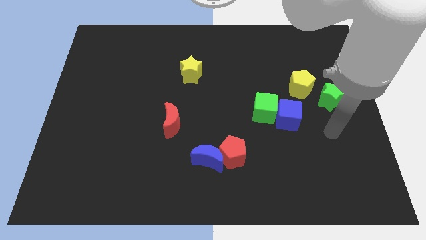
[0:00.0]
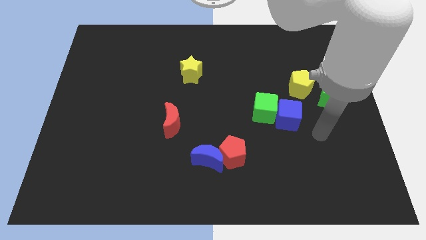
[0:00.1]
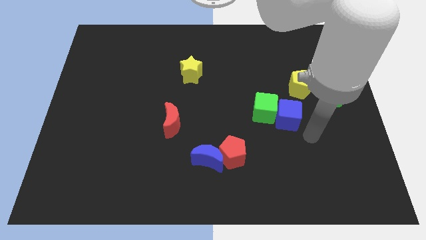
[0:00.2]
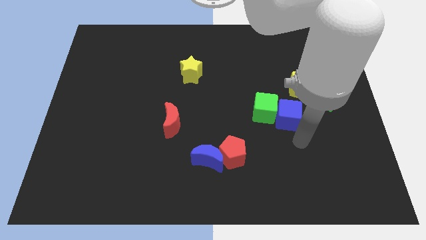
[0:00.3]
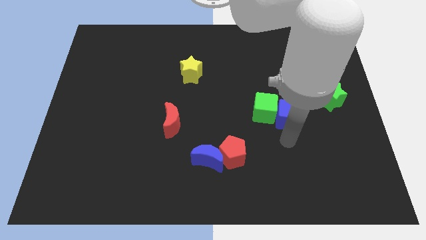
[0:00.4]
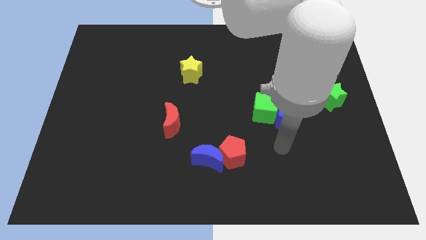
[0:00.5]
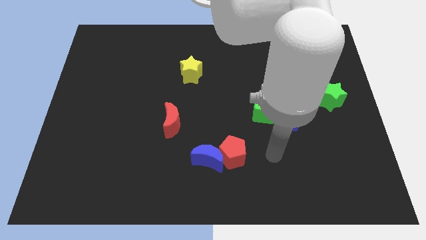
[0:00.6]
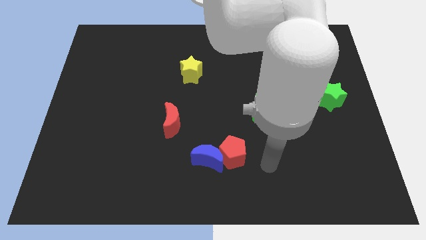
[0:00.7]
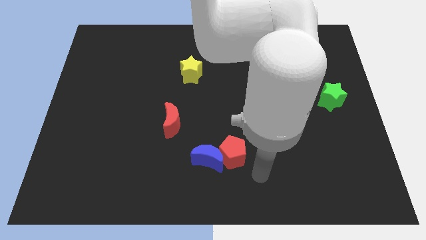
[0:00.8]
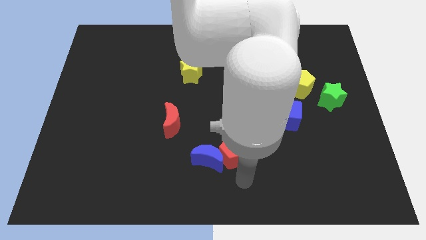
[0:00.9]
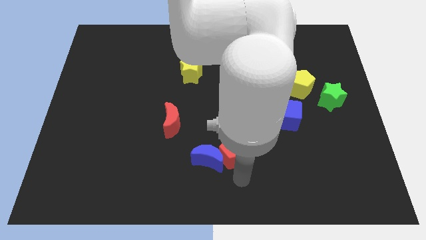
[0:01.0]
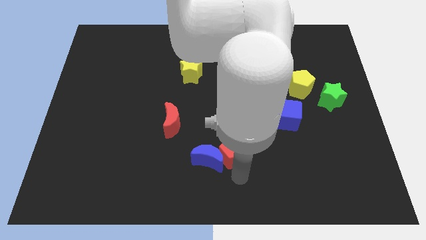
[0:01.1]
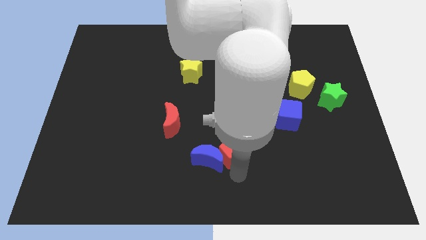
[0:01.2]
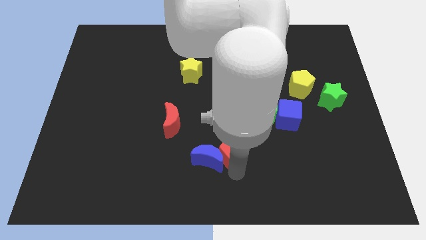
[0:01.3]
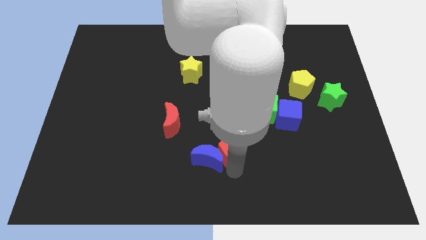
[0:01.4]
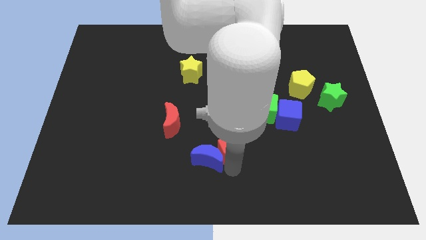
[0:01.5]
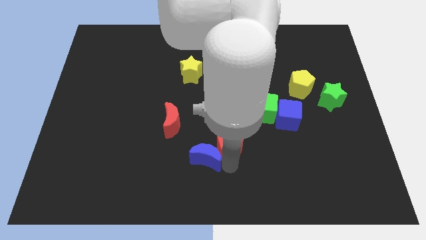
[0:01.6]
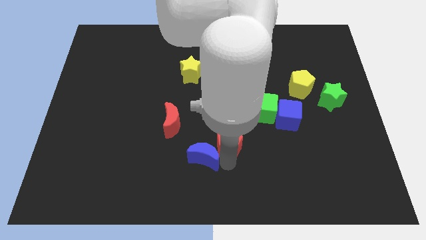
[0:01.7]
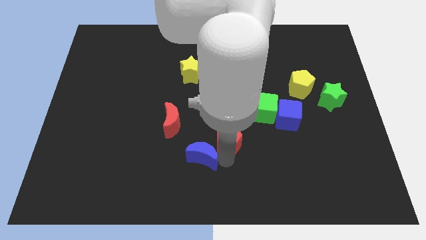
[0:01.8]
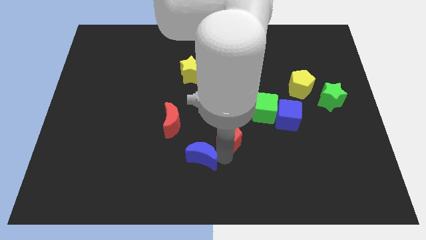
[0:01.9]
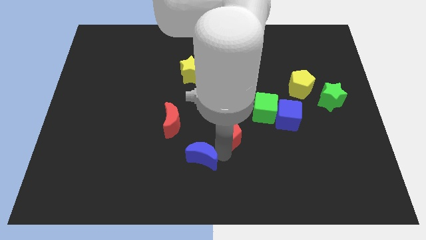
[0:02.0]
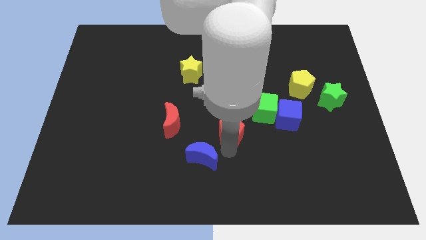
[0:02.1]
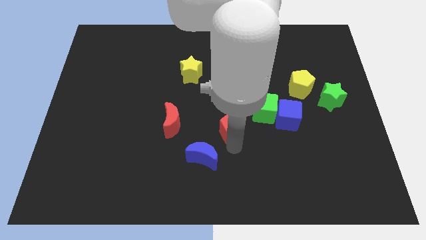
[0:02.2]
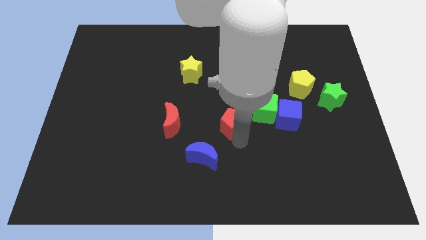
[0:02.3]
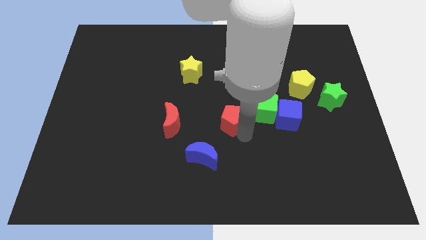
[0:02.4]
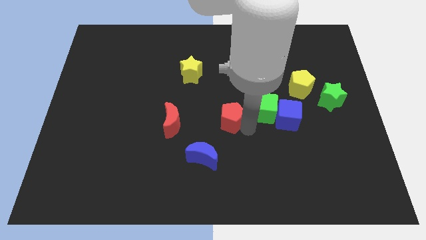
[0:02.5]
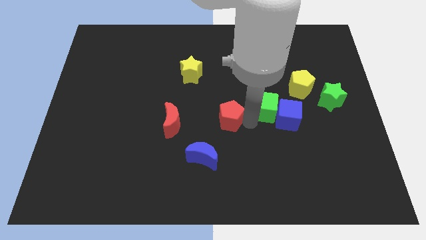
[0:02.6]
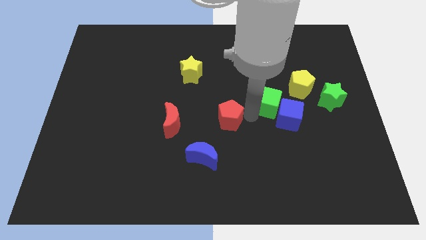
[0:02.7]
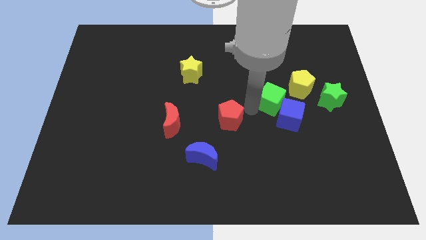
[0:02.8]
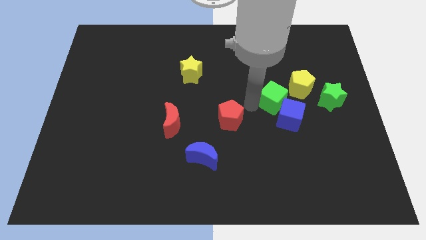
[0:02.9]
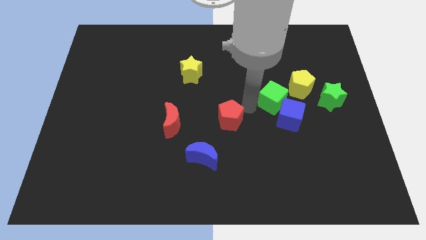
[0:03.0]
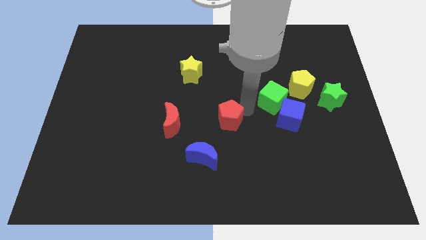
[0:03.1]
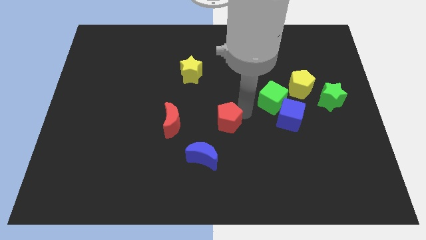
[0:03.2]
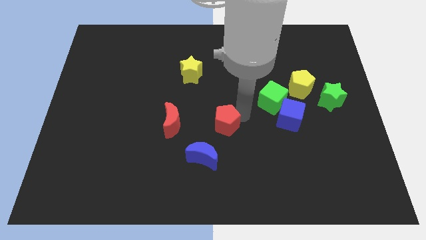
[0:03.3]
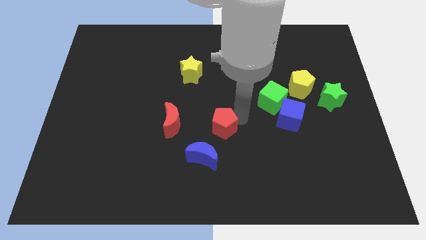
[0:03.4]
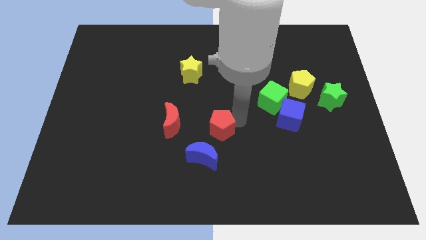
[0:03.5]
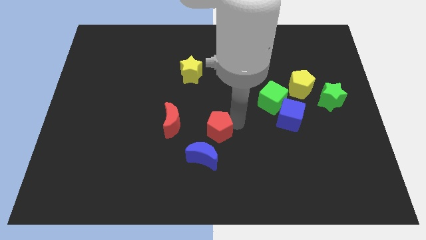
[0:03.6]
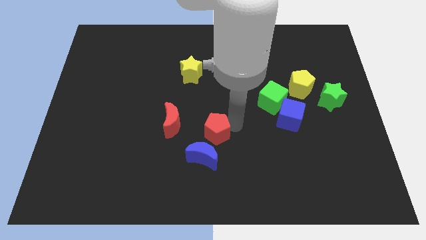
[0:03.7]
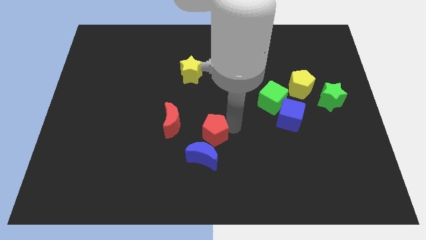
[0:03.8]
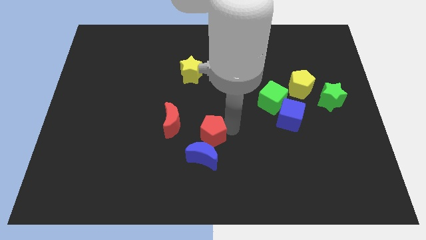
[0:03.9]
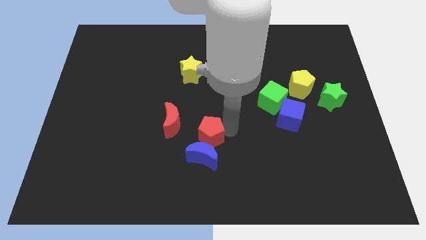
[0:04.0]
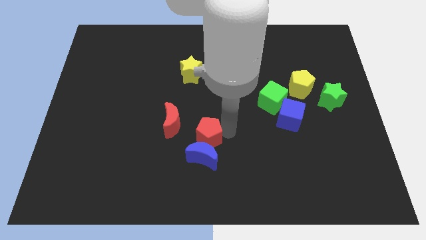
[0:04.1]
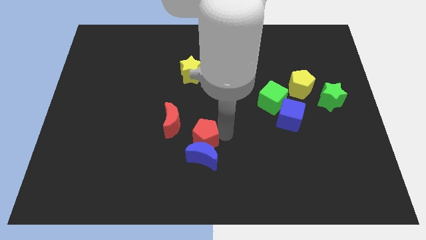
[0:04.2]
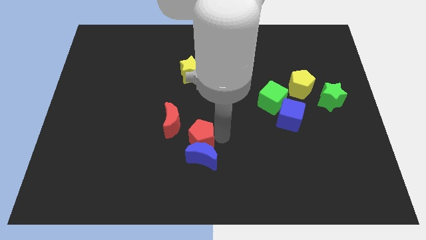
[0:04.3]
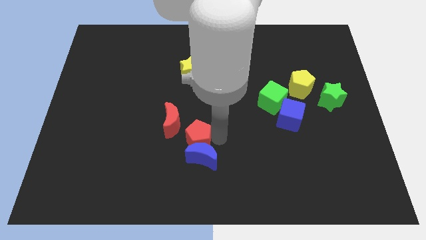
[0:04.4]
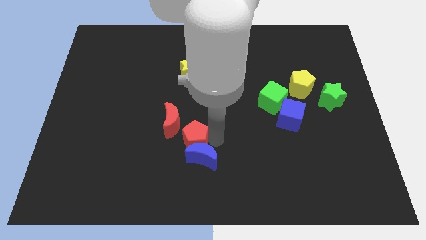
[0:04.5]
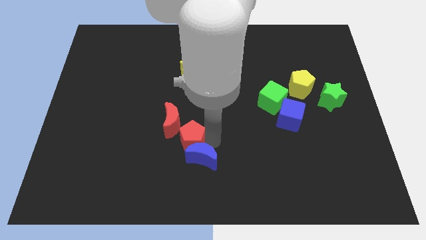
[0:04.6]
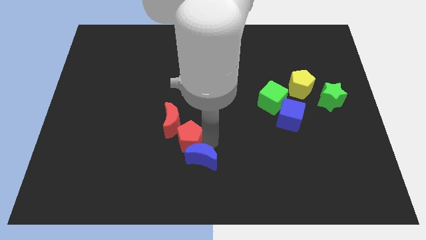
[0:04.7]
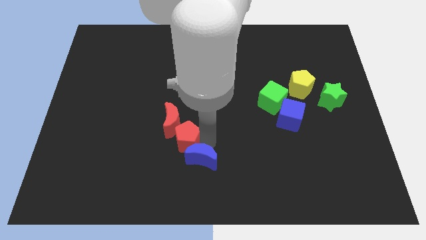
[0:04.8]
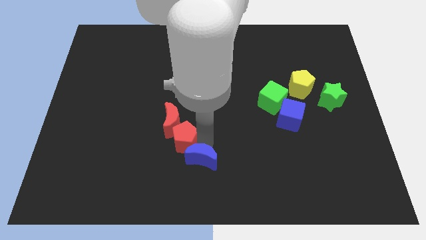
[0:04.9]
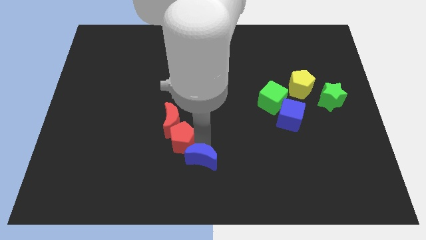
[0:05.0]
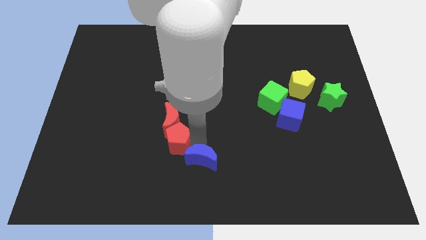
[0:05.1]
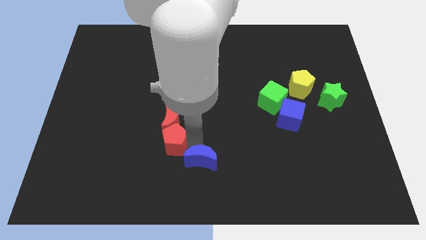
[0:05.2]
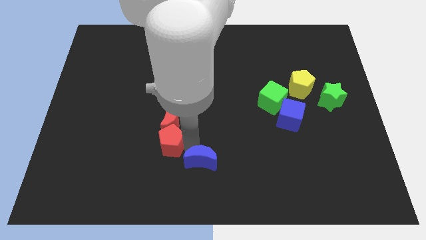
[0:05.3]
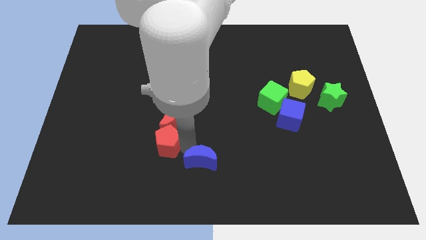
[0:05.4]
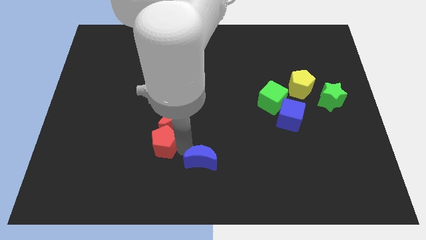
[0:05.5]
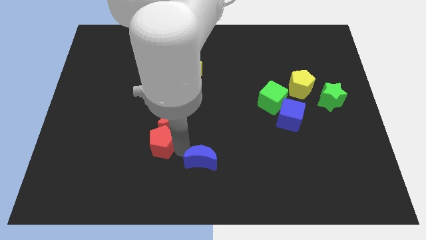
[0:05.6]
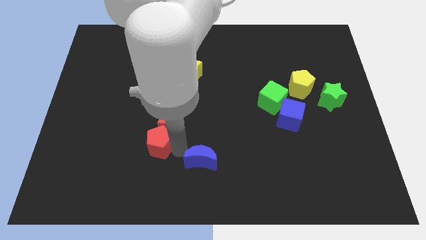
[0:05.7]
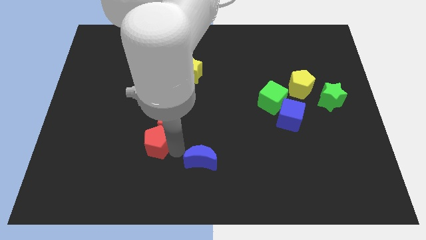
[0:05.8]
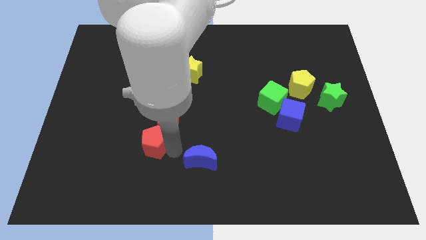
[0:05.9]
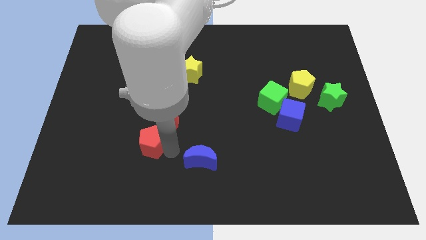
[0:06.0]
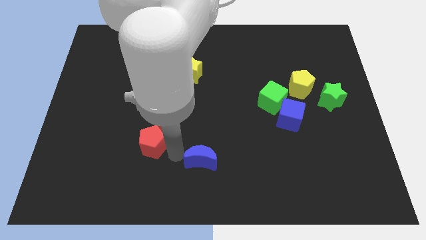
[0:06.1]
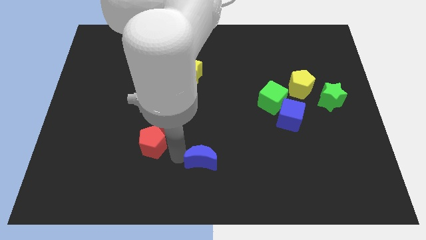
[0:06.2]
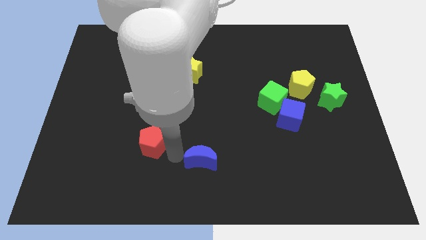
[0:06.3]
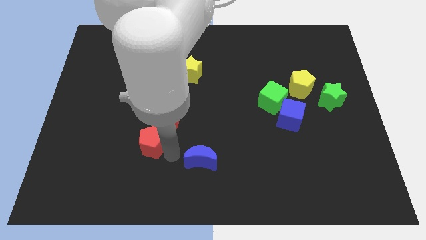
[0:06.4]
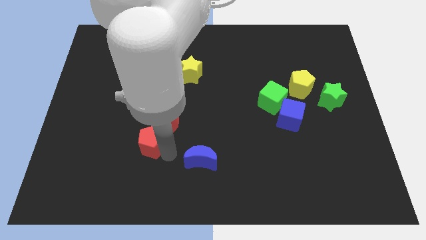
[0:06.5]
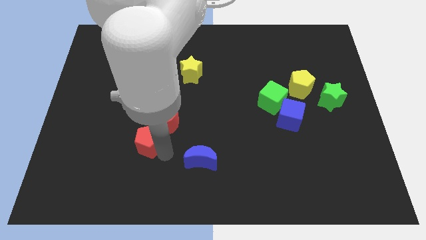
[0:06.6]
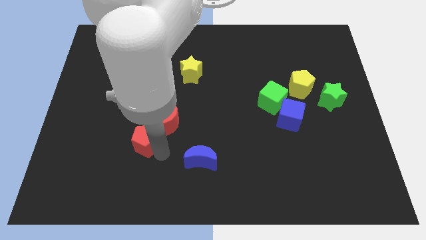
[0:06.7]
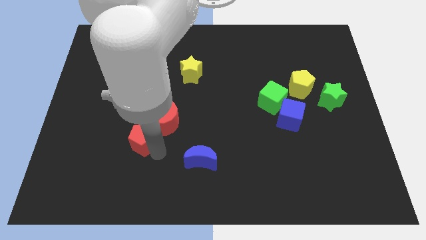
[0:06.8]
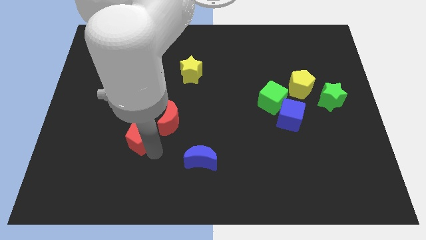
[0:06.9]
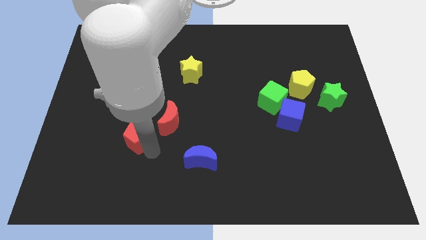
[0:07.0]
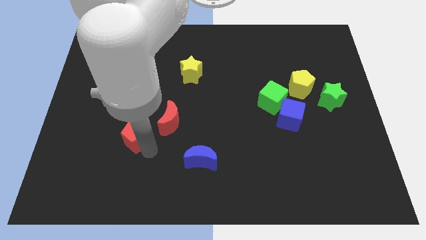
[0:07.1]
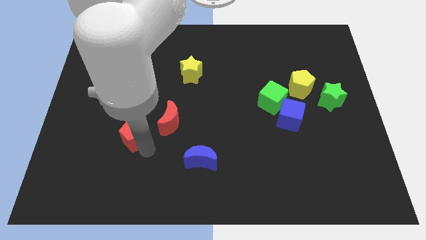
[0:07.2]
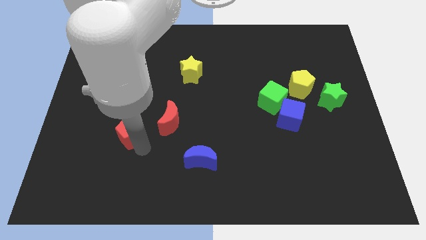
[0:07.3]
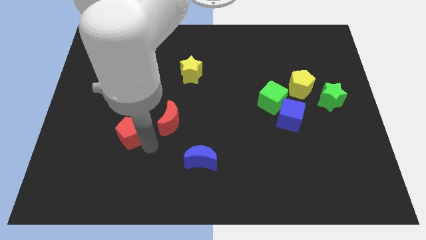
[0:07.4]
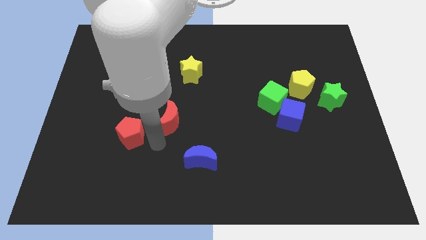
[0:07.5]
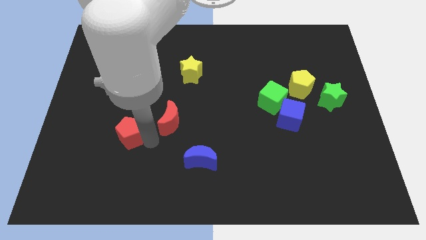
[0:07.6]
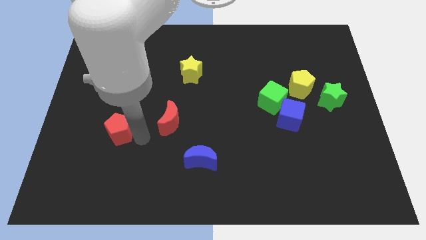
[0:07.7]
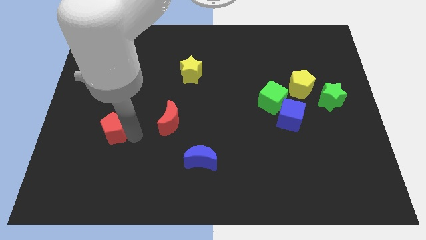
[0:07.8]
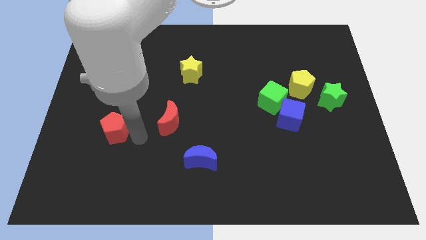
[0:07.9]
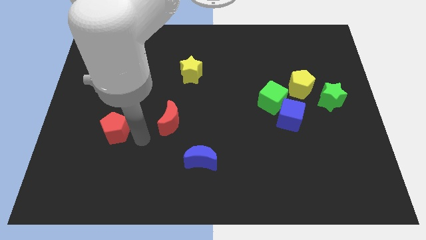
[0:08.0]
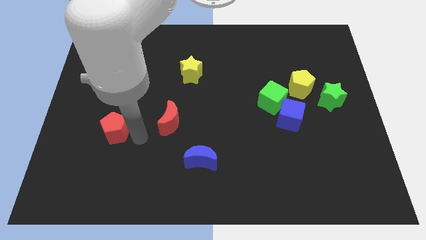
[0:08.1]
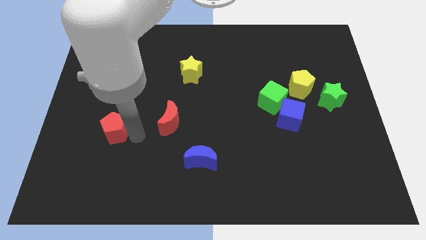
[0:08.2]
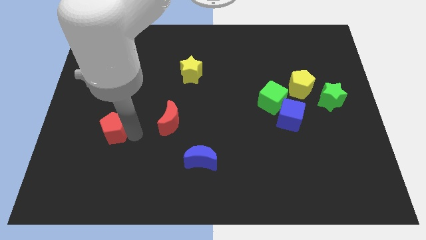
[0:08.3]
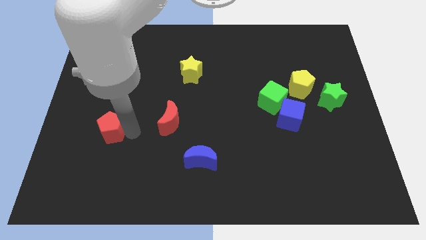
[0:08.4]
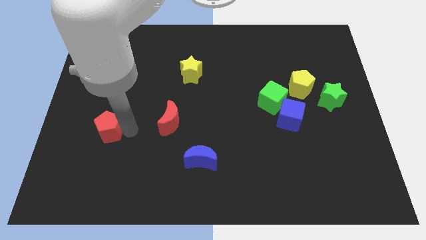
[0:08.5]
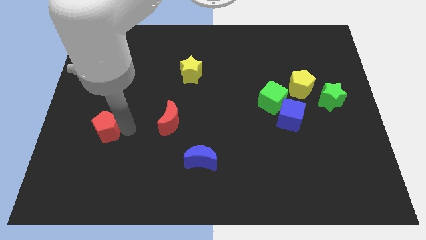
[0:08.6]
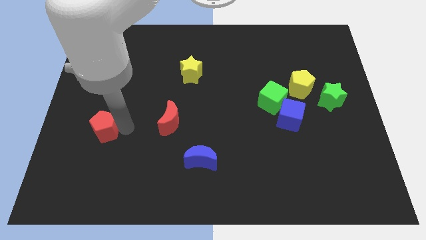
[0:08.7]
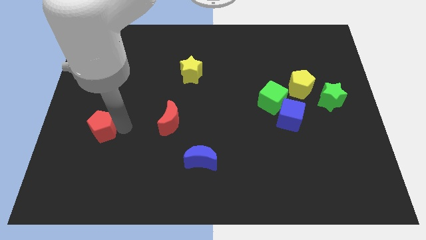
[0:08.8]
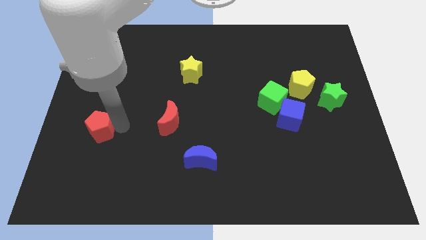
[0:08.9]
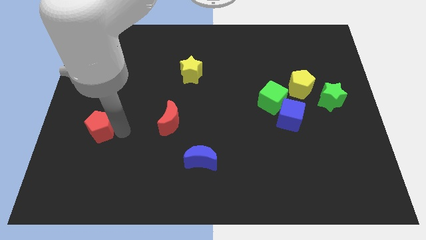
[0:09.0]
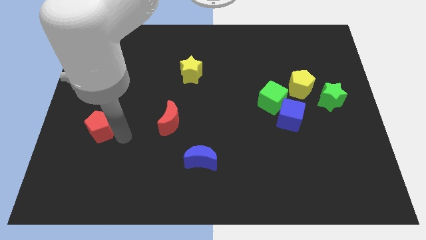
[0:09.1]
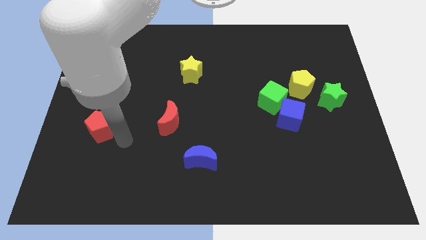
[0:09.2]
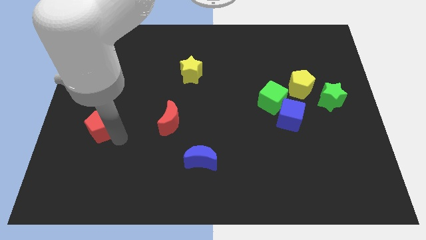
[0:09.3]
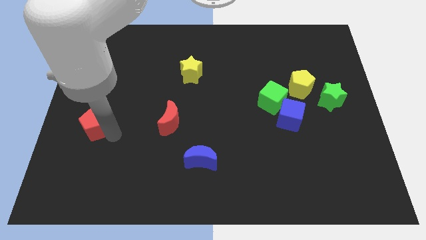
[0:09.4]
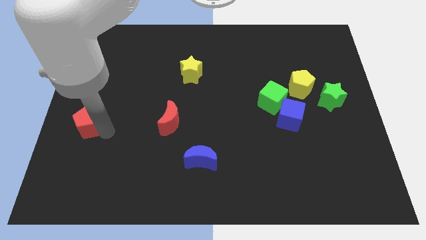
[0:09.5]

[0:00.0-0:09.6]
move the red pentagon to the left side
